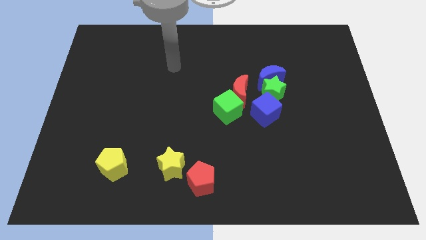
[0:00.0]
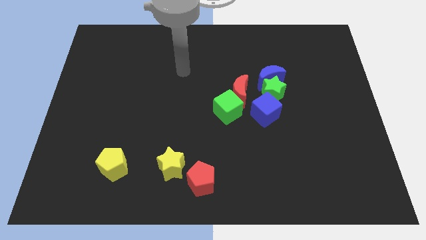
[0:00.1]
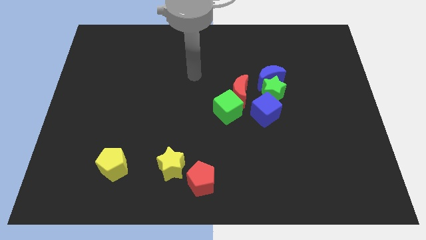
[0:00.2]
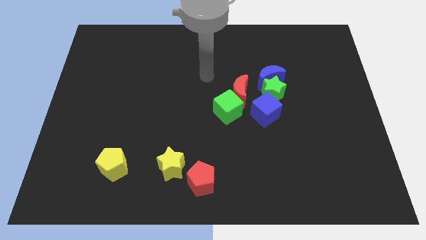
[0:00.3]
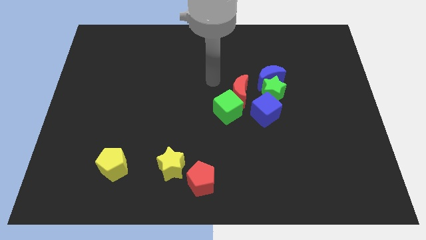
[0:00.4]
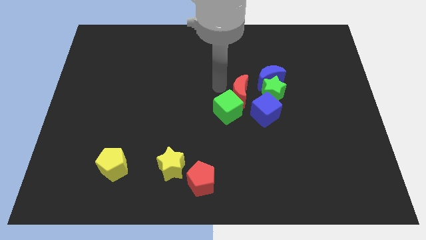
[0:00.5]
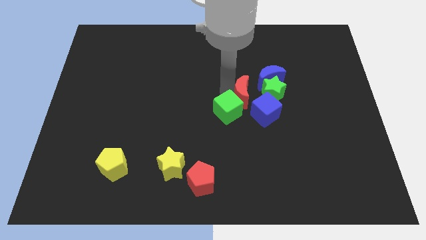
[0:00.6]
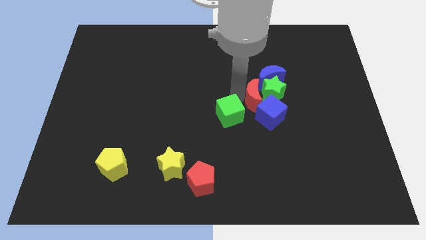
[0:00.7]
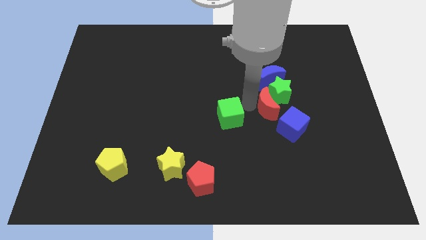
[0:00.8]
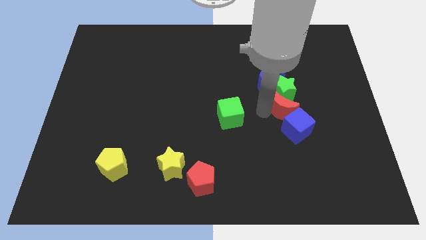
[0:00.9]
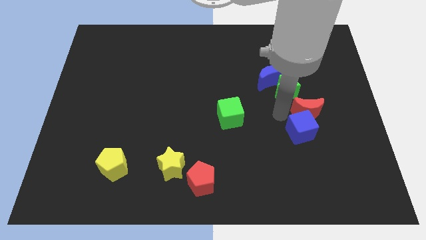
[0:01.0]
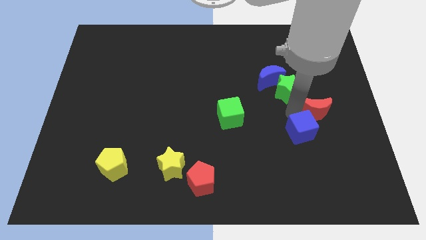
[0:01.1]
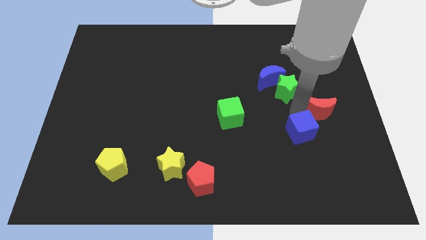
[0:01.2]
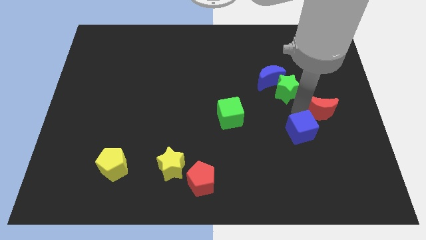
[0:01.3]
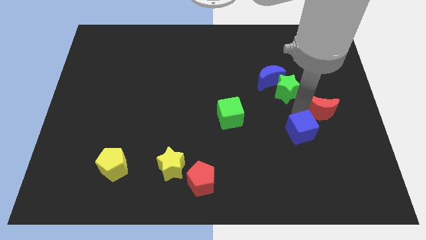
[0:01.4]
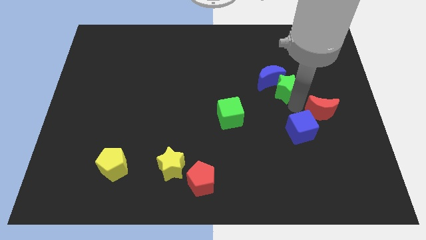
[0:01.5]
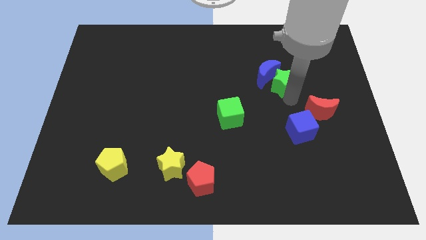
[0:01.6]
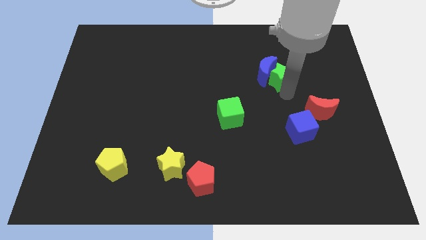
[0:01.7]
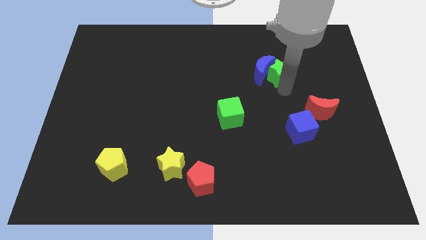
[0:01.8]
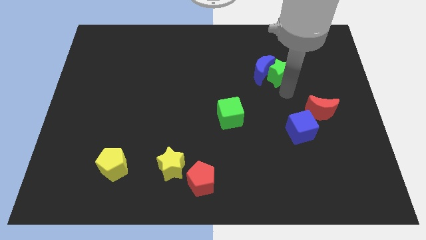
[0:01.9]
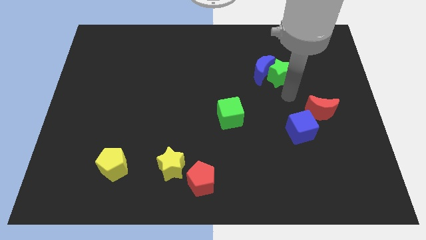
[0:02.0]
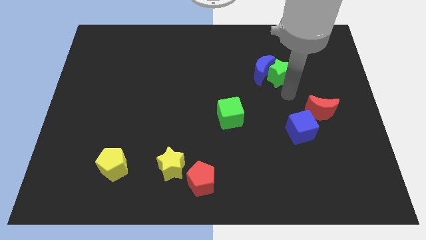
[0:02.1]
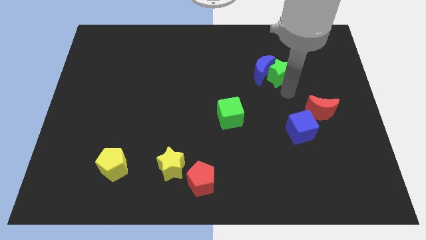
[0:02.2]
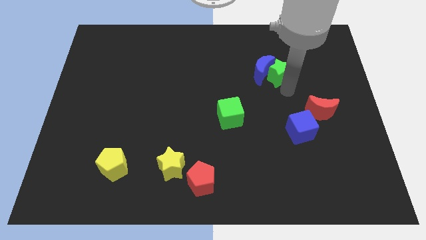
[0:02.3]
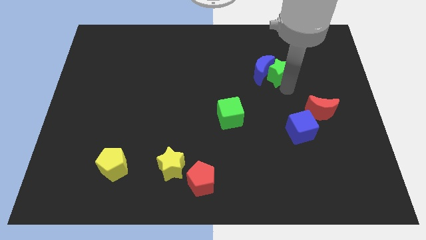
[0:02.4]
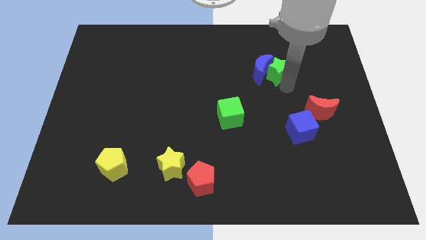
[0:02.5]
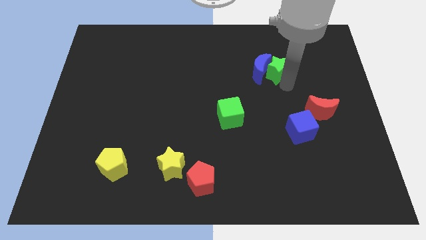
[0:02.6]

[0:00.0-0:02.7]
separate the green star from the blue moon, blue cube, and red moon

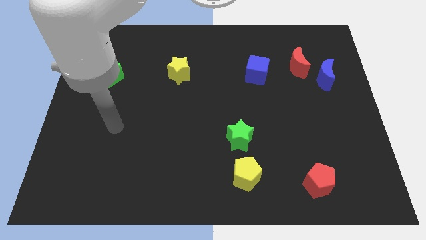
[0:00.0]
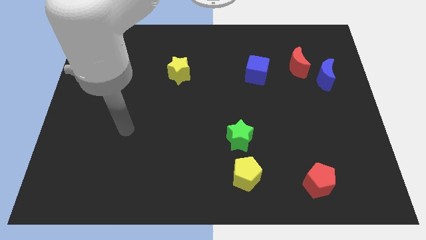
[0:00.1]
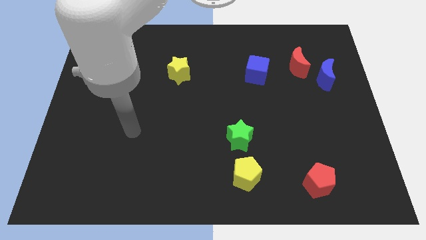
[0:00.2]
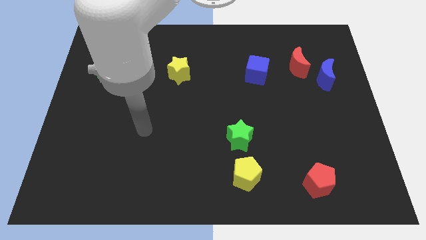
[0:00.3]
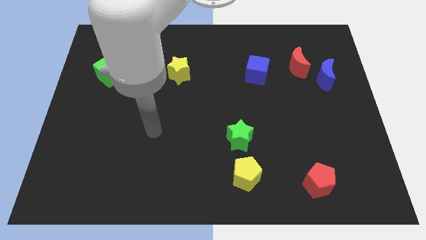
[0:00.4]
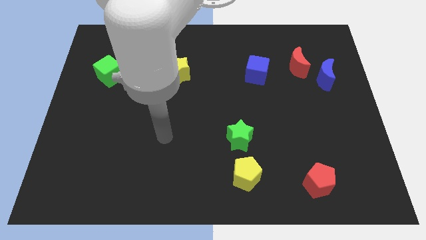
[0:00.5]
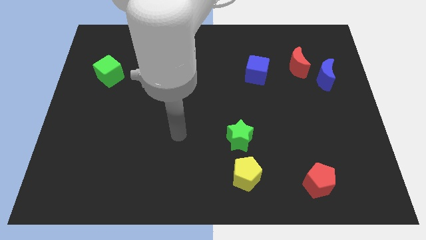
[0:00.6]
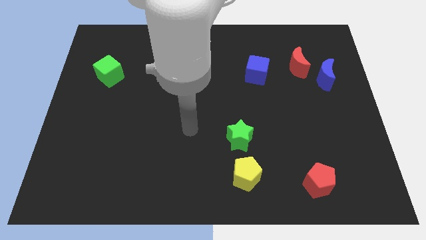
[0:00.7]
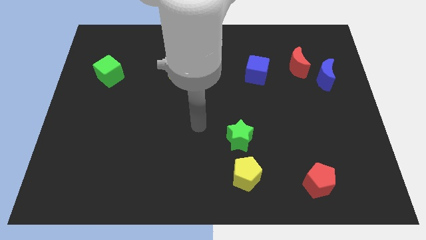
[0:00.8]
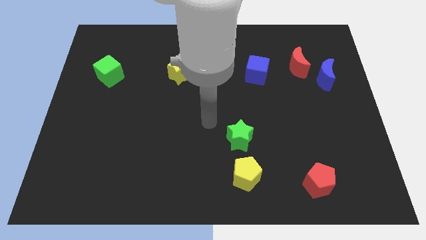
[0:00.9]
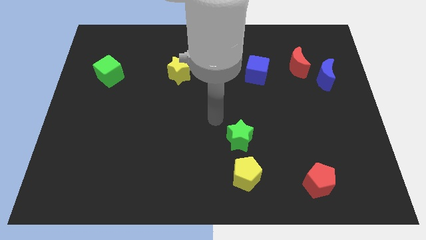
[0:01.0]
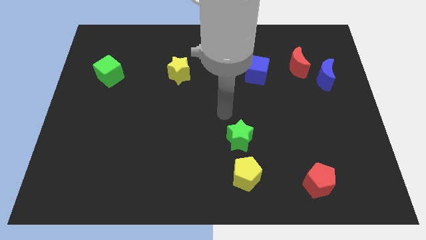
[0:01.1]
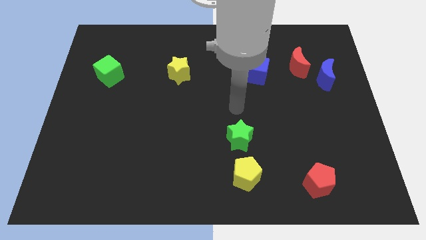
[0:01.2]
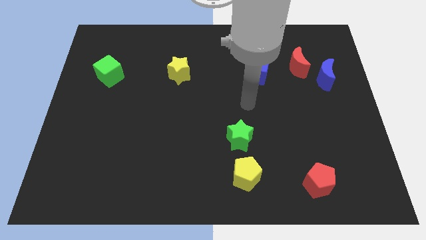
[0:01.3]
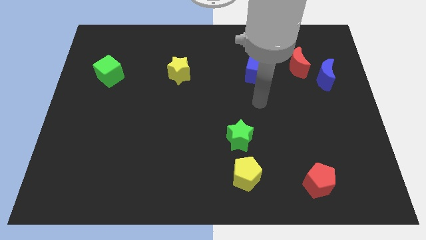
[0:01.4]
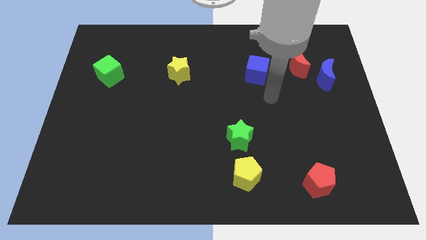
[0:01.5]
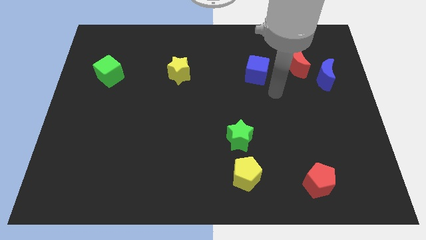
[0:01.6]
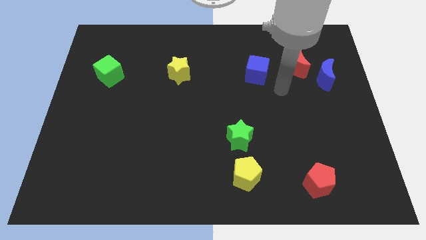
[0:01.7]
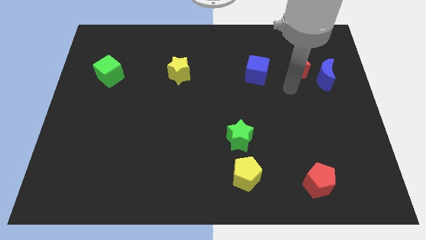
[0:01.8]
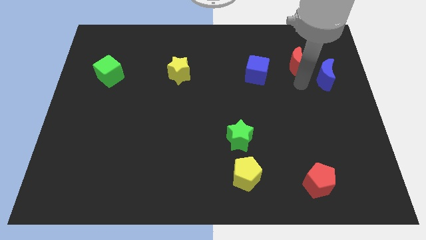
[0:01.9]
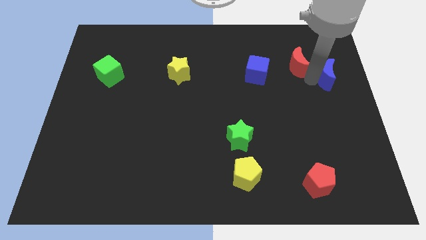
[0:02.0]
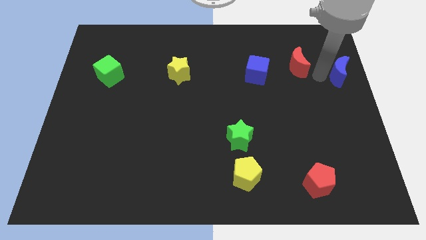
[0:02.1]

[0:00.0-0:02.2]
pull the red moon apart from the blue moon

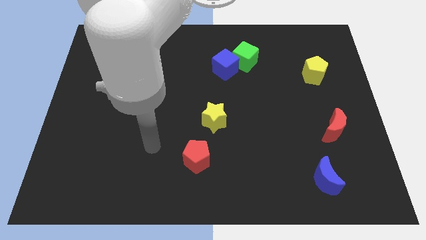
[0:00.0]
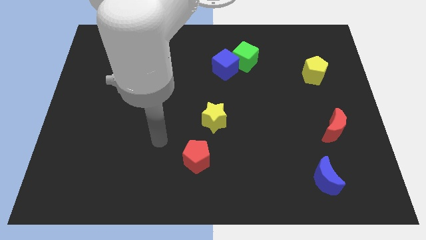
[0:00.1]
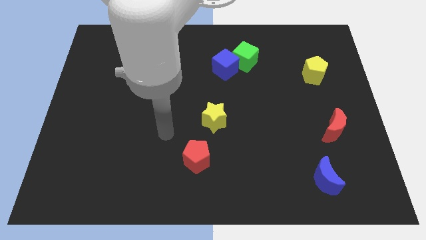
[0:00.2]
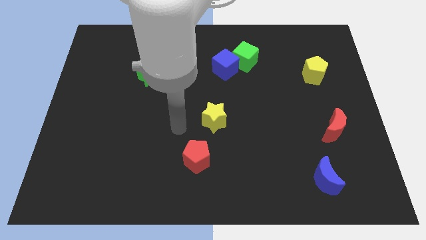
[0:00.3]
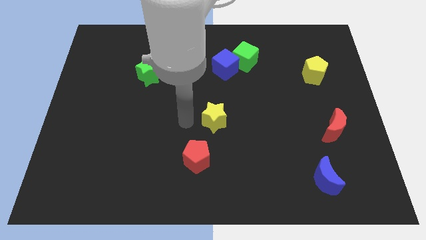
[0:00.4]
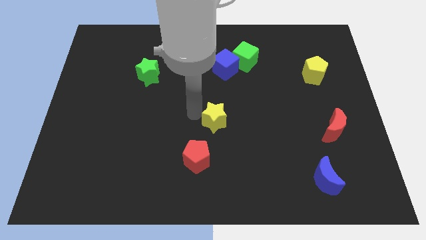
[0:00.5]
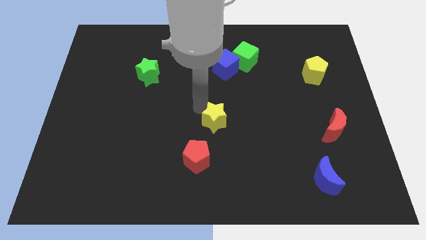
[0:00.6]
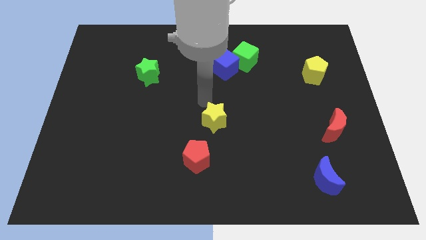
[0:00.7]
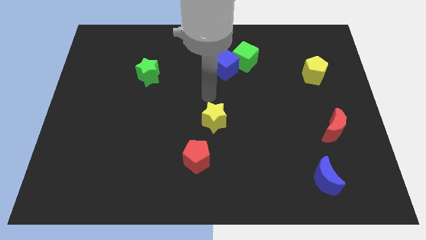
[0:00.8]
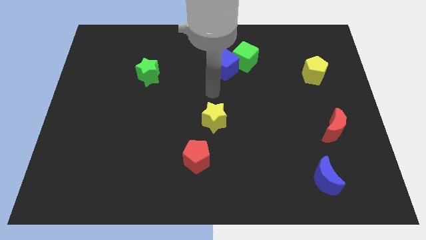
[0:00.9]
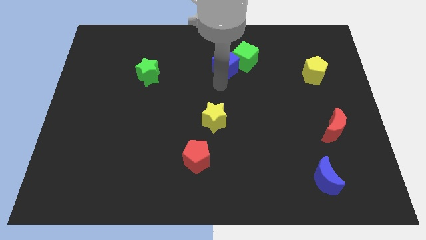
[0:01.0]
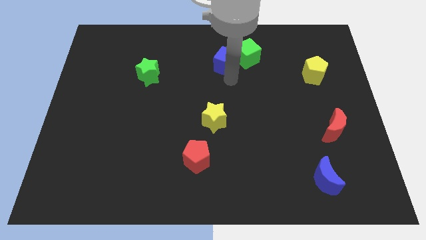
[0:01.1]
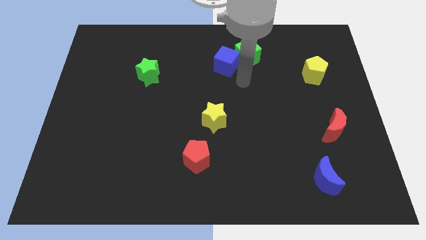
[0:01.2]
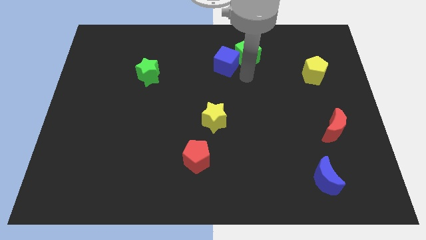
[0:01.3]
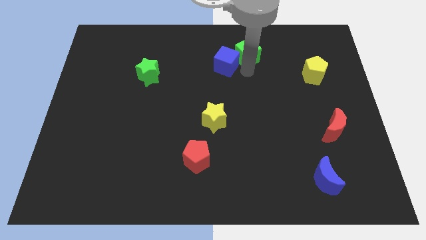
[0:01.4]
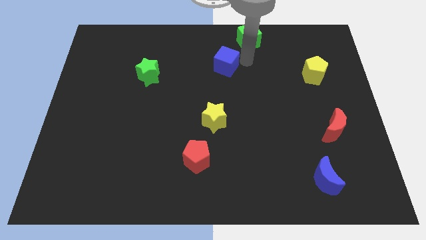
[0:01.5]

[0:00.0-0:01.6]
move the blue cube away from the green cube

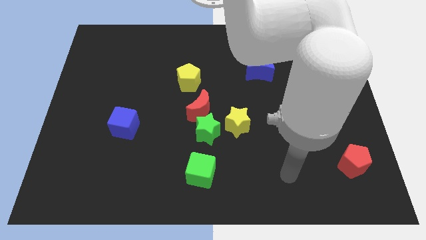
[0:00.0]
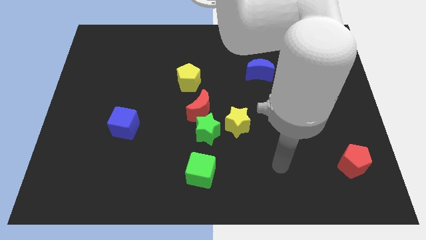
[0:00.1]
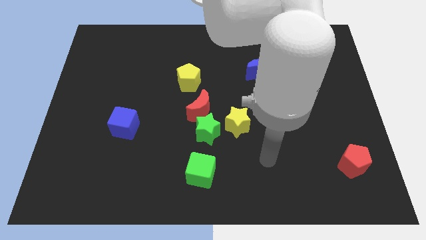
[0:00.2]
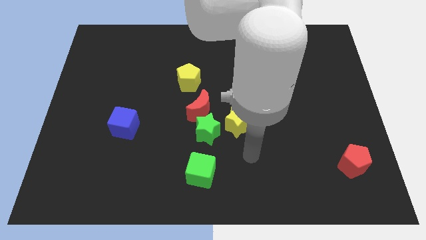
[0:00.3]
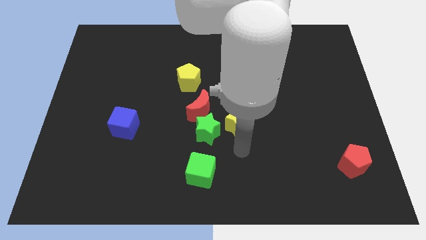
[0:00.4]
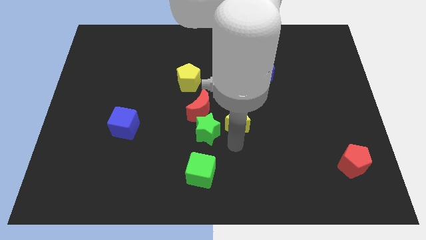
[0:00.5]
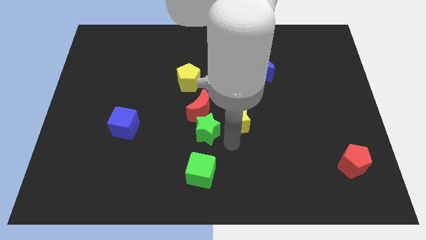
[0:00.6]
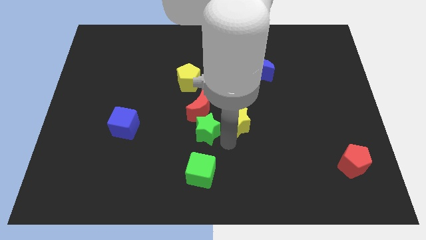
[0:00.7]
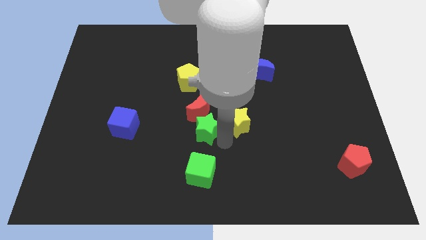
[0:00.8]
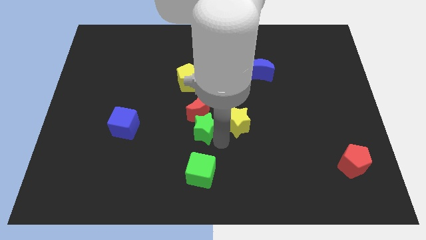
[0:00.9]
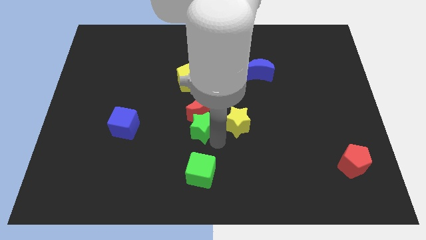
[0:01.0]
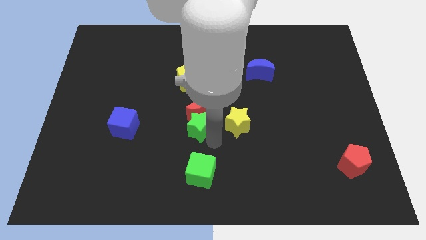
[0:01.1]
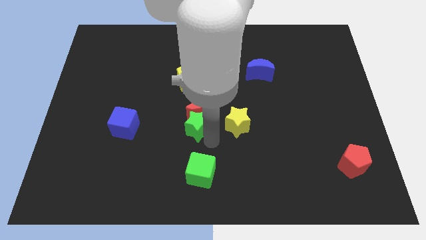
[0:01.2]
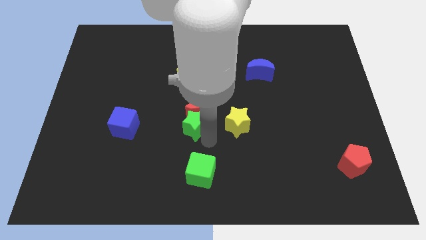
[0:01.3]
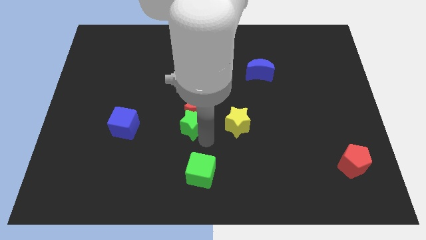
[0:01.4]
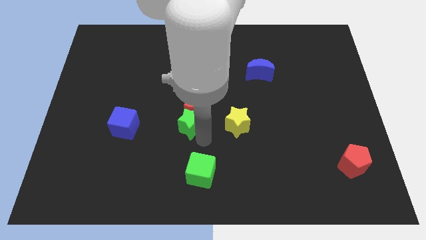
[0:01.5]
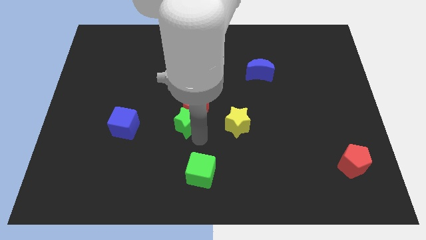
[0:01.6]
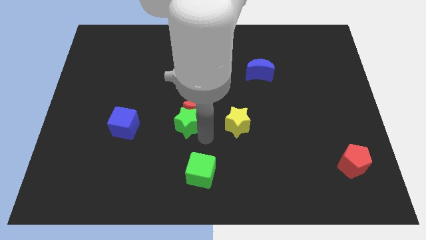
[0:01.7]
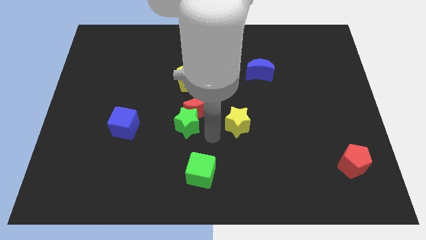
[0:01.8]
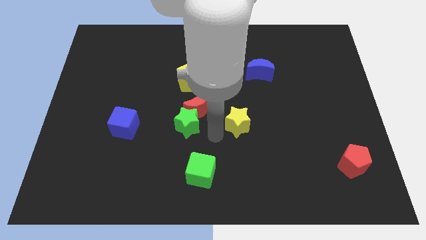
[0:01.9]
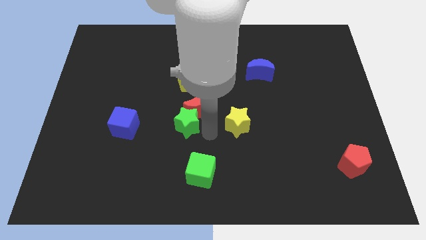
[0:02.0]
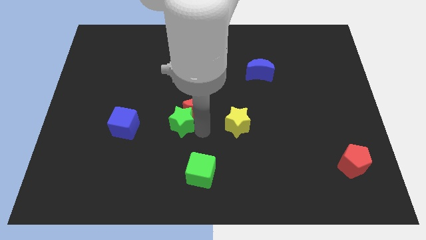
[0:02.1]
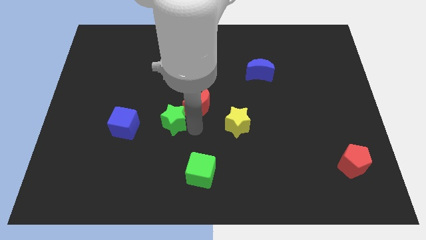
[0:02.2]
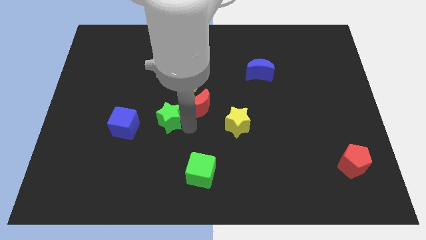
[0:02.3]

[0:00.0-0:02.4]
separate the green star from the group of blocks

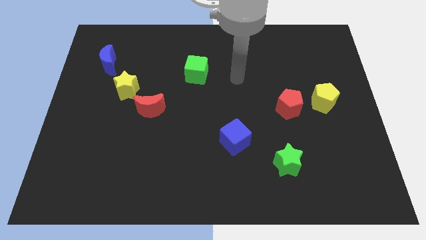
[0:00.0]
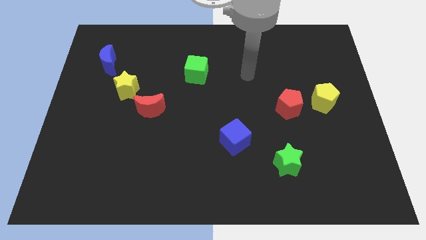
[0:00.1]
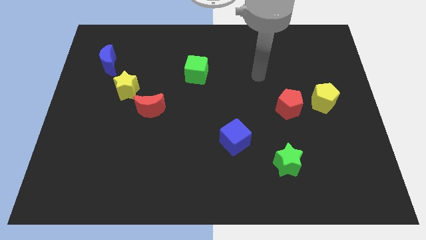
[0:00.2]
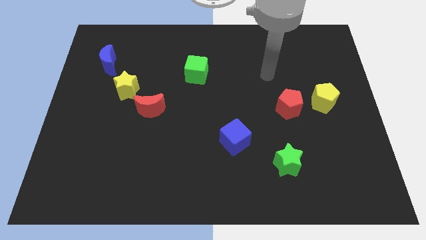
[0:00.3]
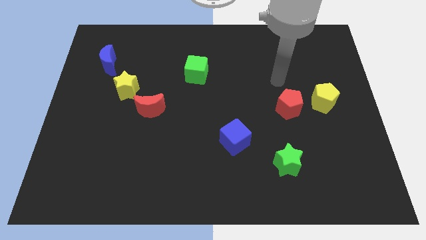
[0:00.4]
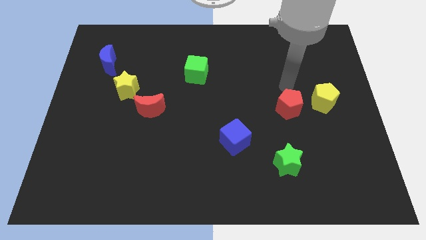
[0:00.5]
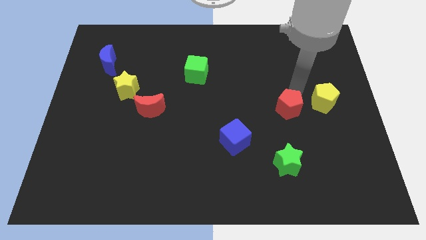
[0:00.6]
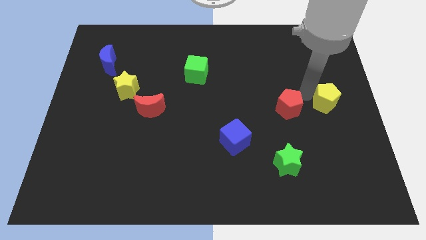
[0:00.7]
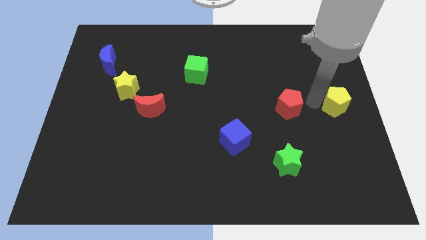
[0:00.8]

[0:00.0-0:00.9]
pull the red pentagon apart from the yellow pentagon
